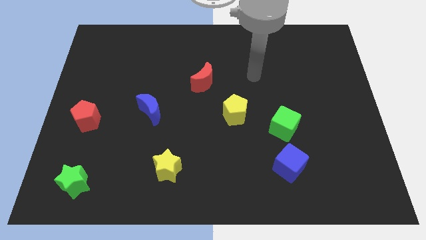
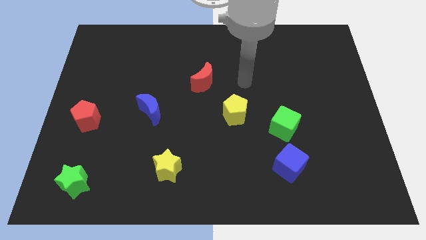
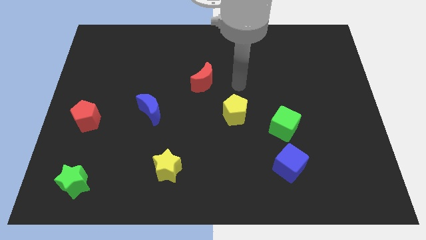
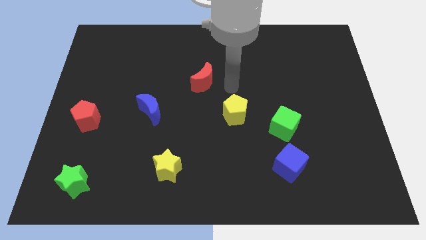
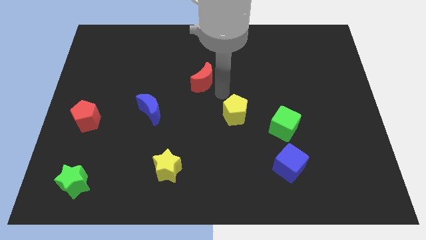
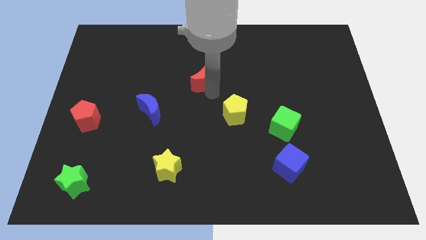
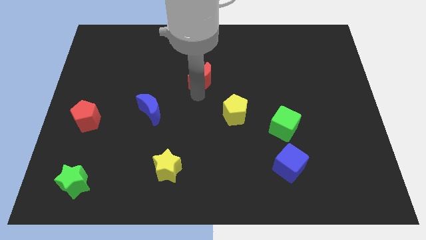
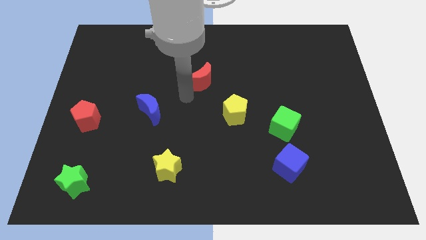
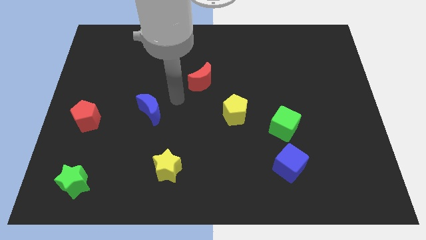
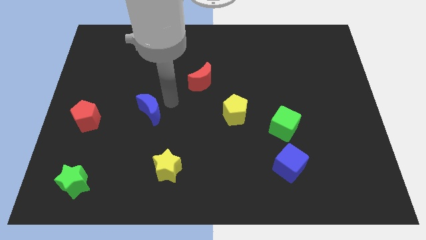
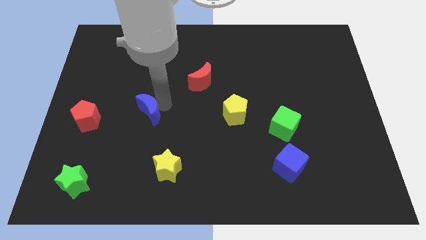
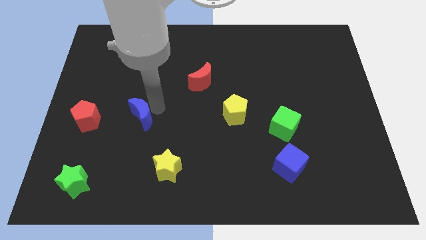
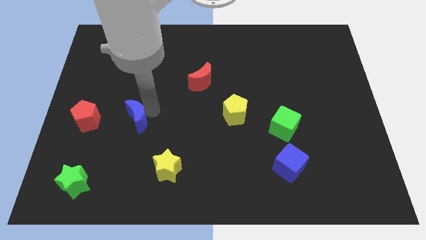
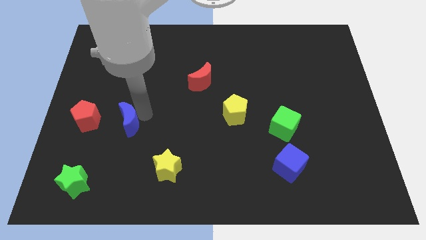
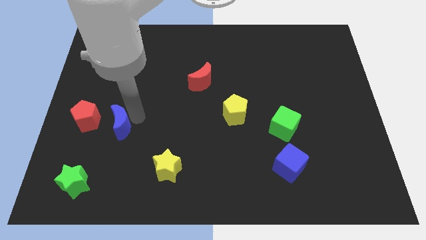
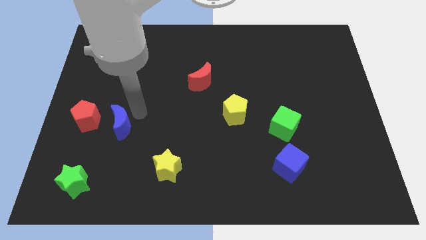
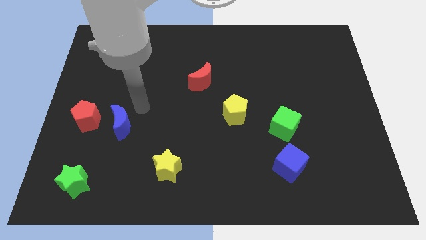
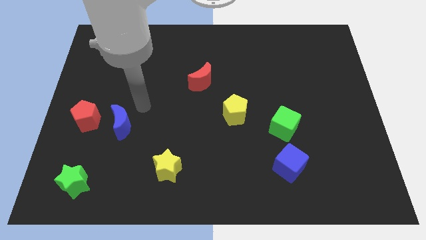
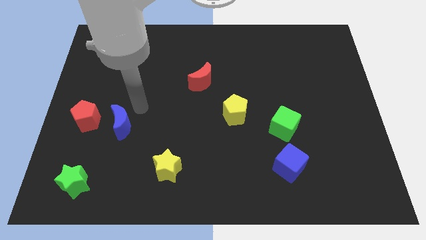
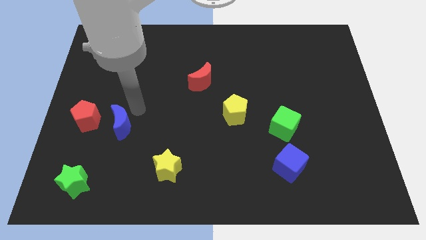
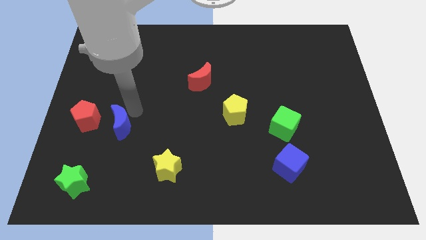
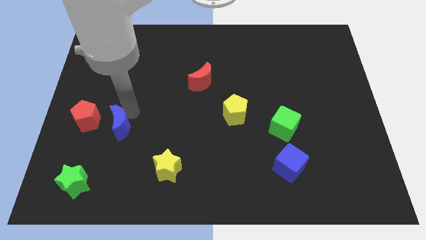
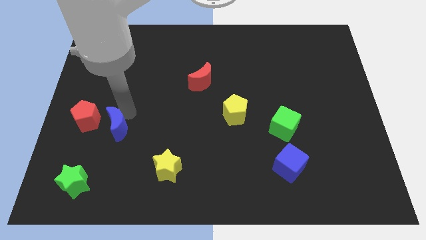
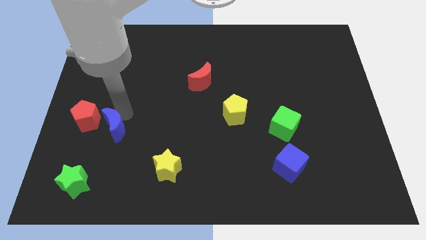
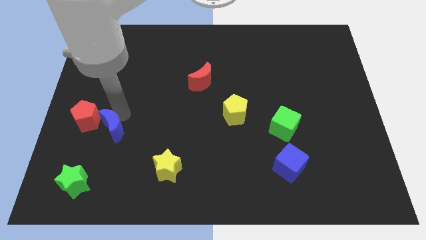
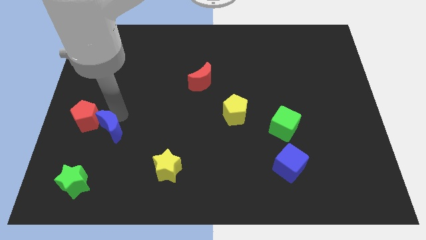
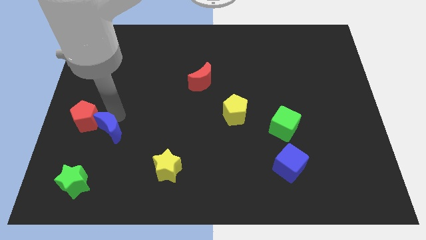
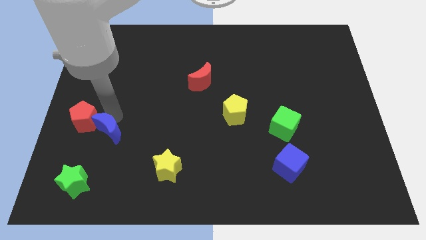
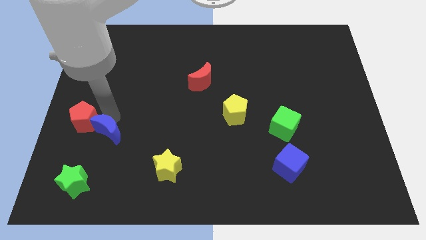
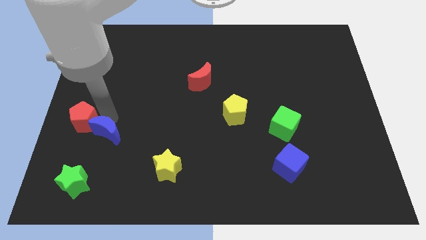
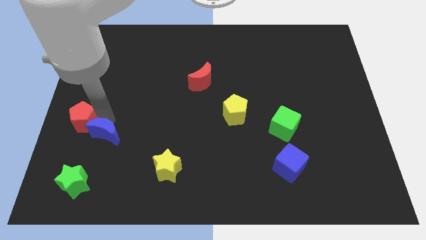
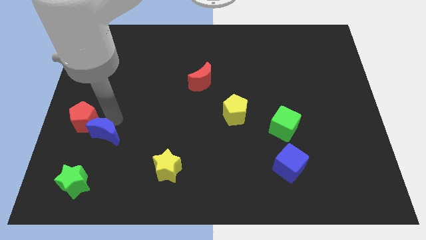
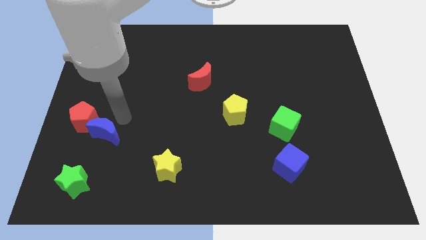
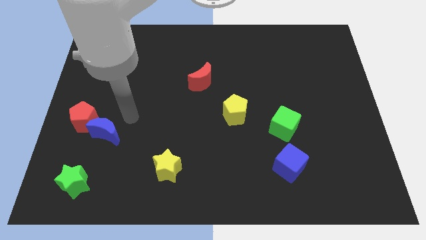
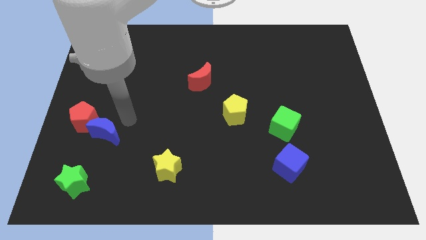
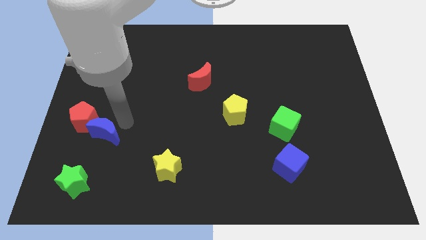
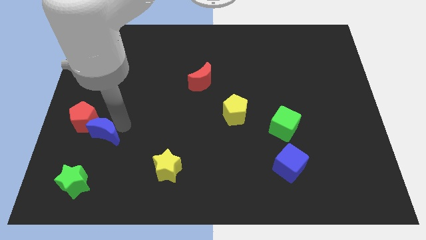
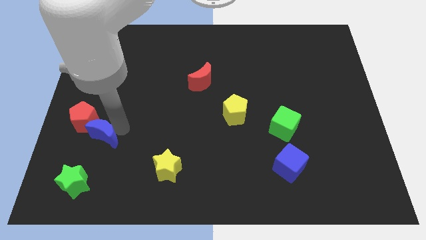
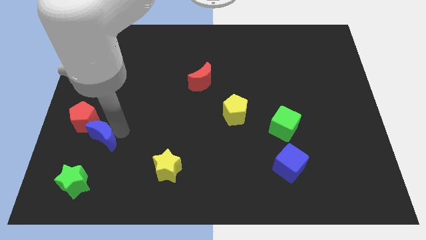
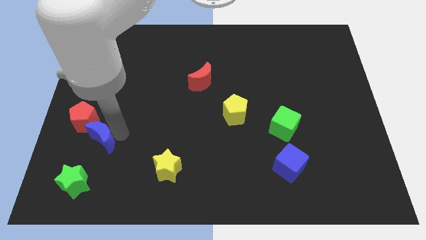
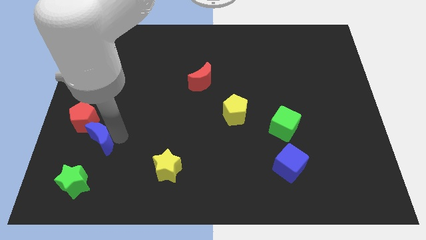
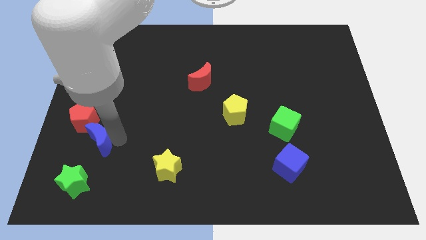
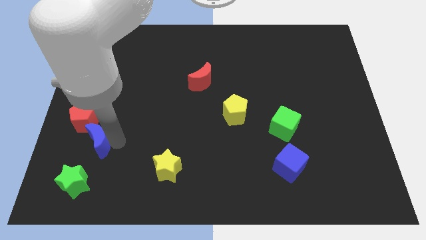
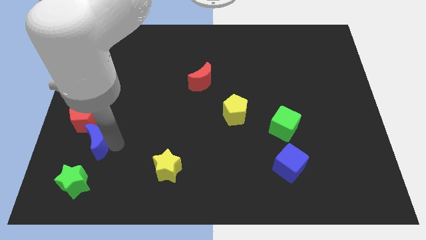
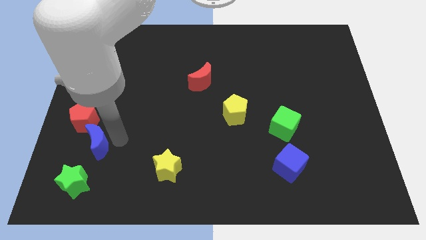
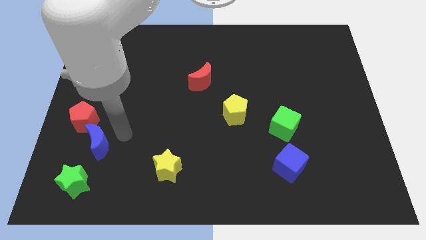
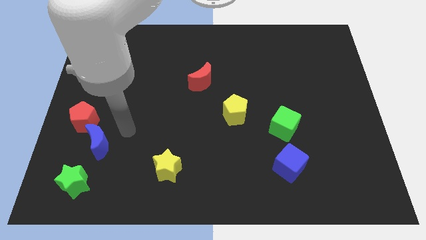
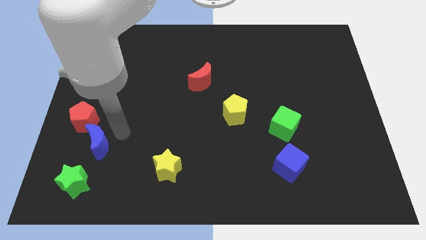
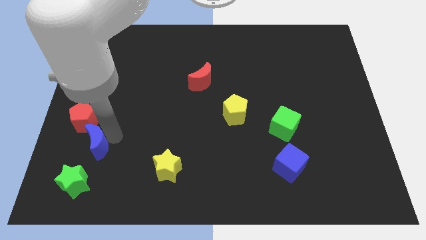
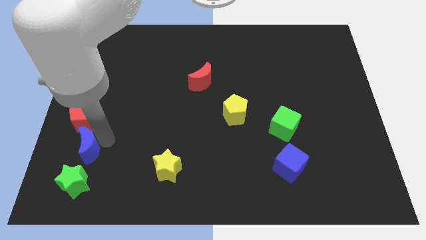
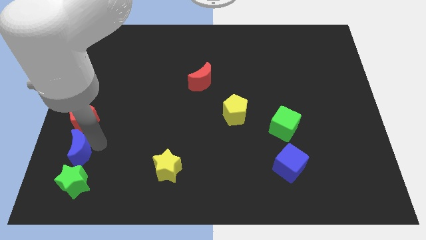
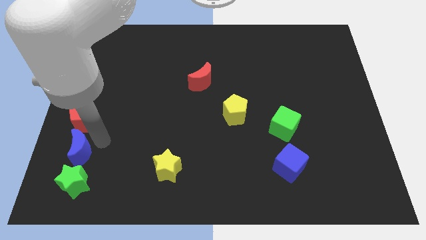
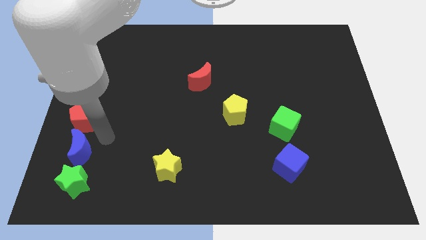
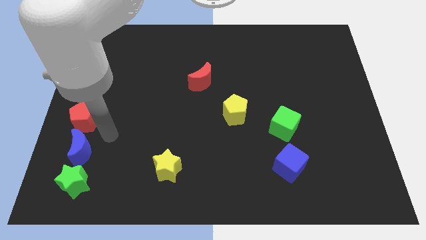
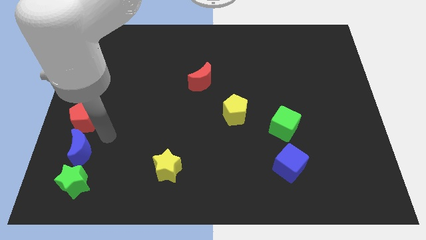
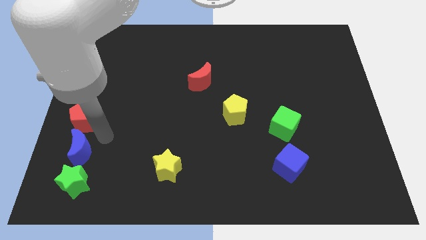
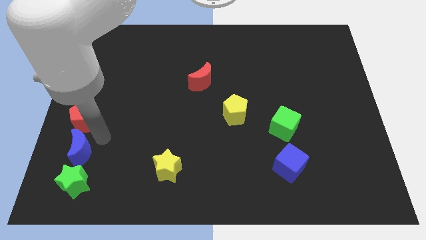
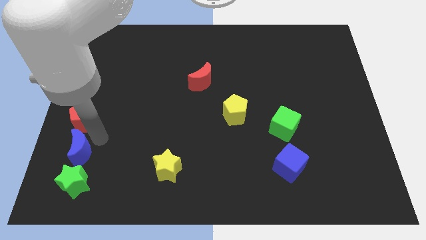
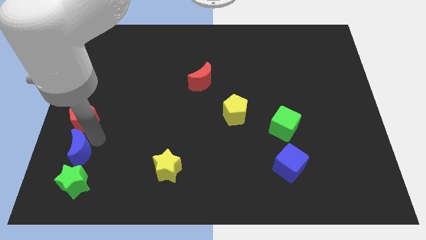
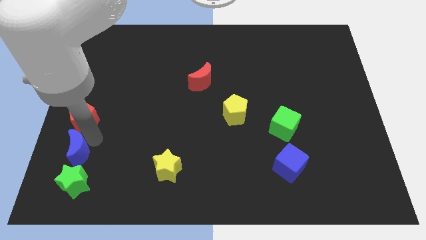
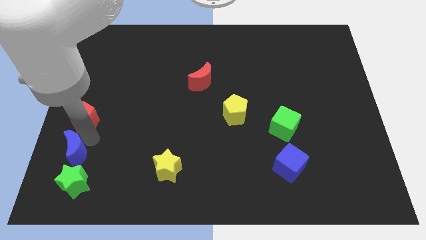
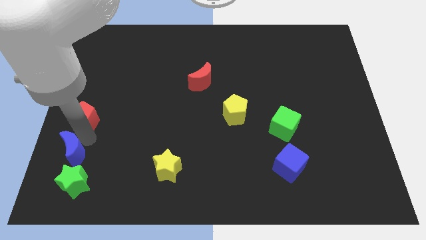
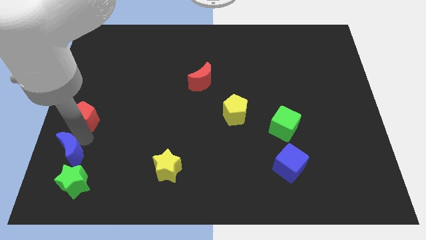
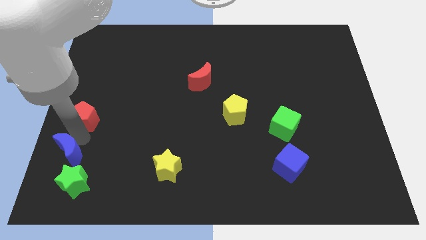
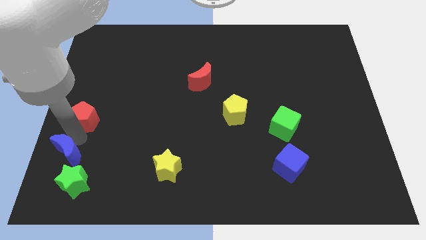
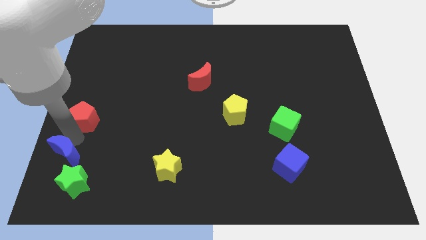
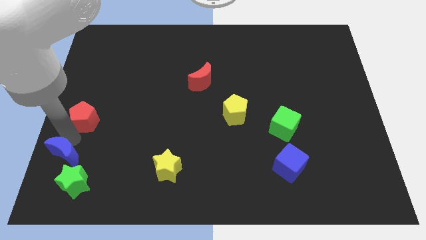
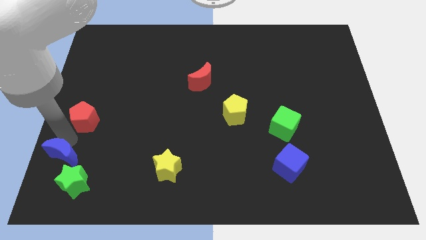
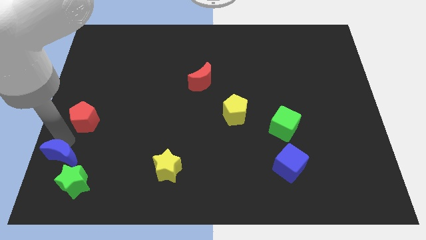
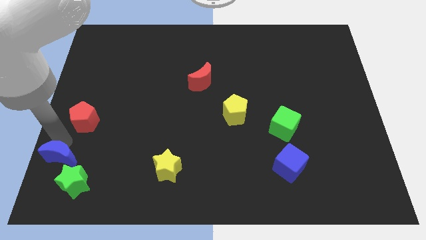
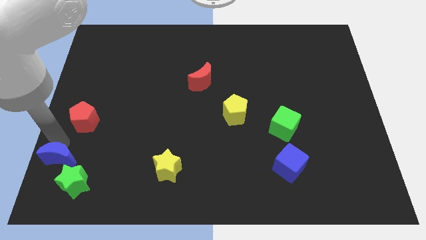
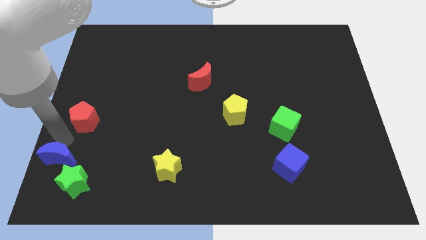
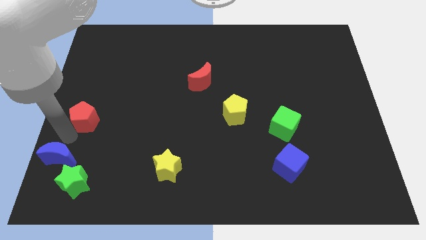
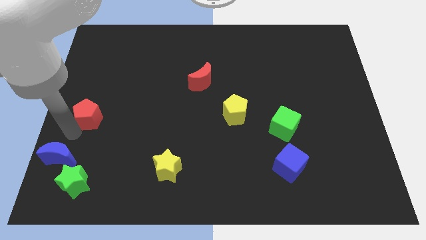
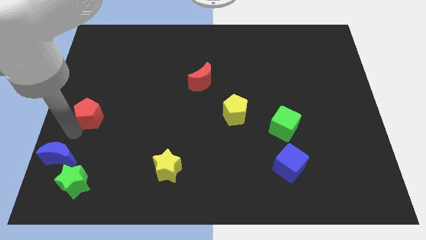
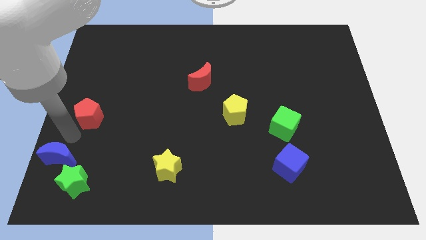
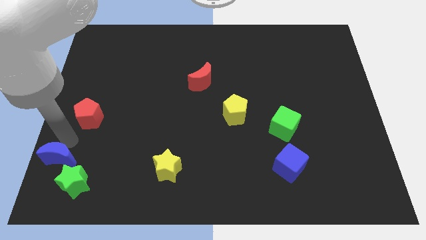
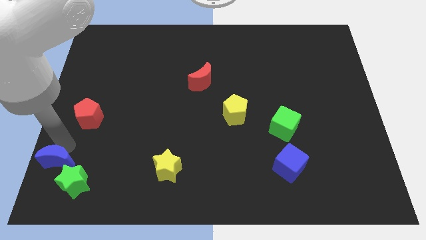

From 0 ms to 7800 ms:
put the blue moon to the bottom left of the board
